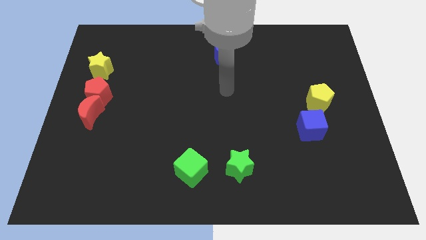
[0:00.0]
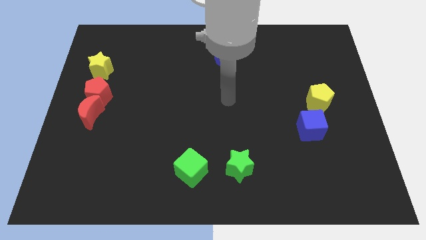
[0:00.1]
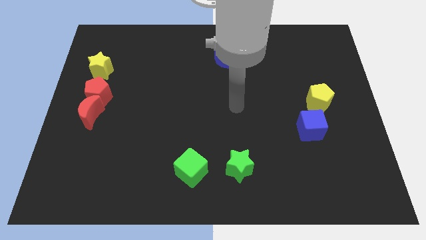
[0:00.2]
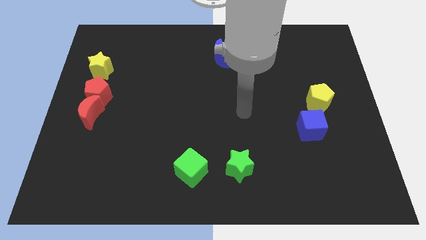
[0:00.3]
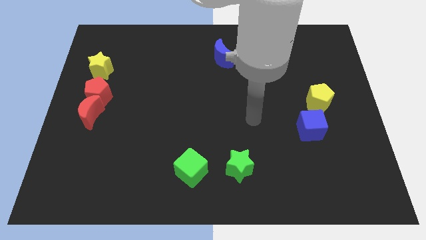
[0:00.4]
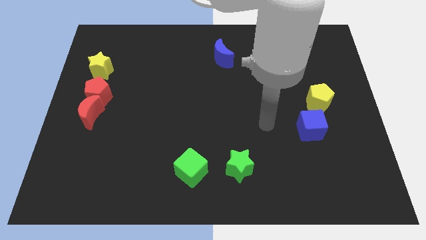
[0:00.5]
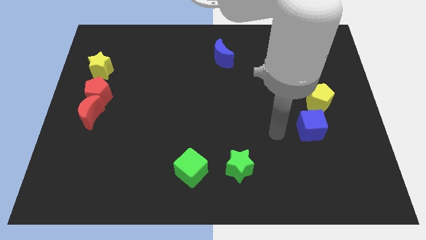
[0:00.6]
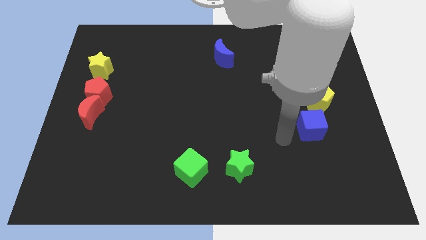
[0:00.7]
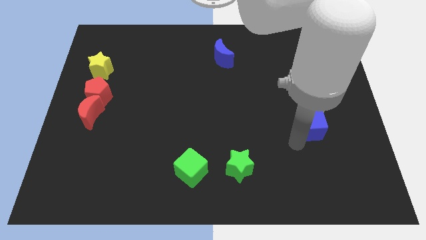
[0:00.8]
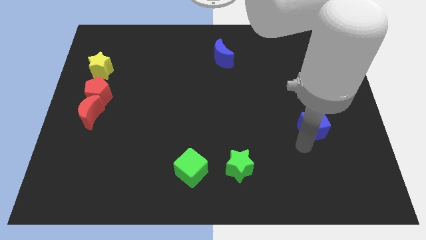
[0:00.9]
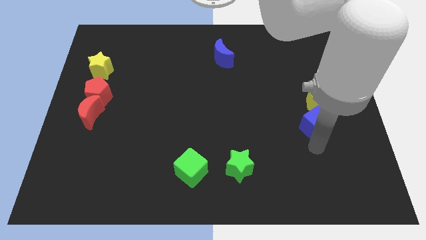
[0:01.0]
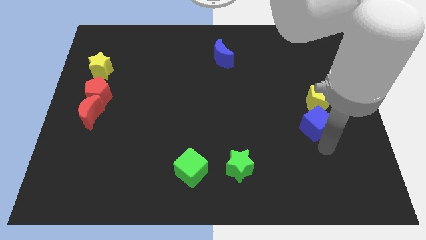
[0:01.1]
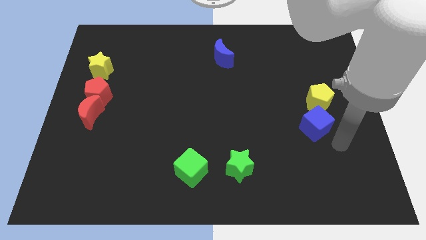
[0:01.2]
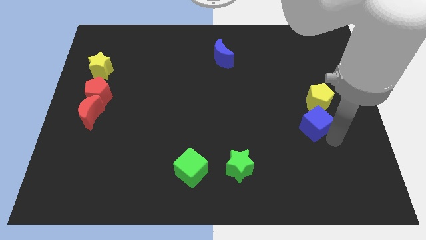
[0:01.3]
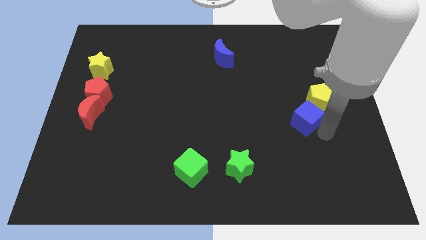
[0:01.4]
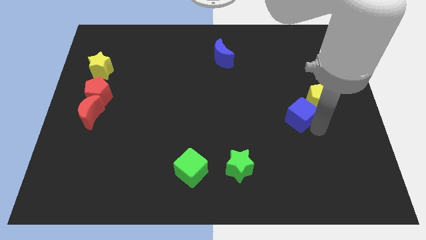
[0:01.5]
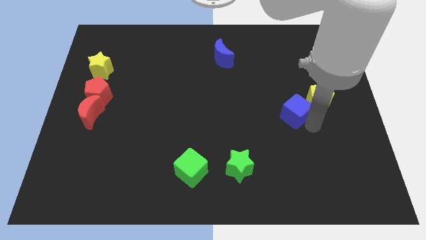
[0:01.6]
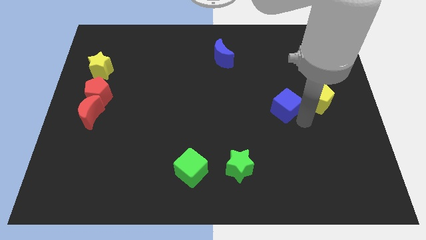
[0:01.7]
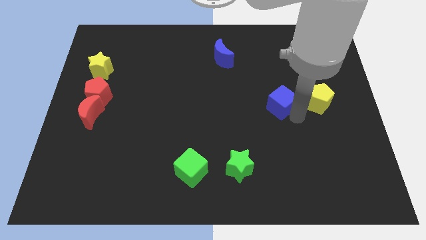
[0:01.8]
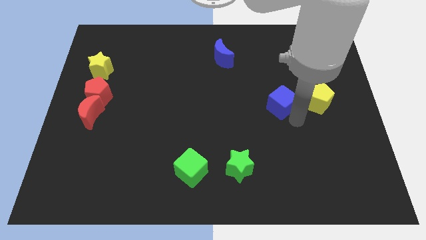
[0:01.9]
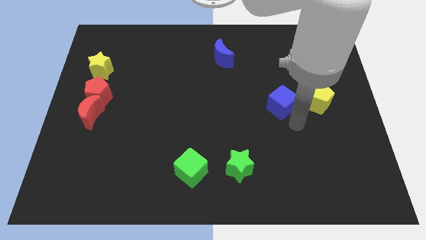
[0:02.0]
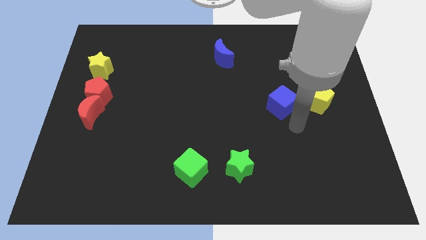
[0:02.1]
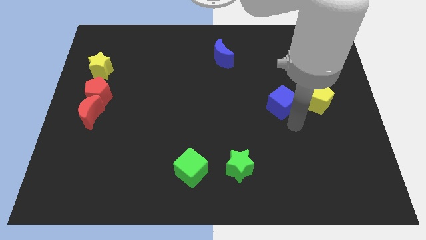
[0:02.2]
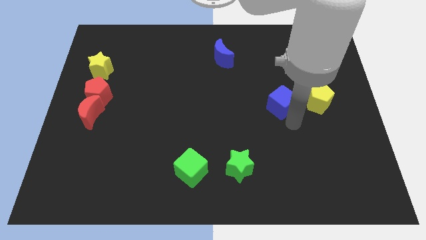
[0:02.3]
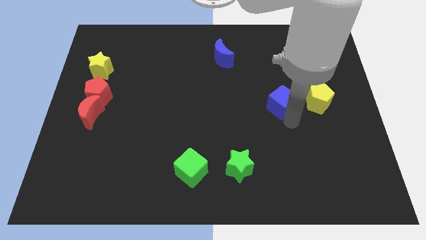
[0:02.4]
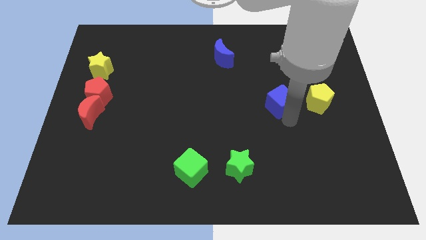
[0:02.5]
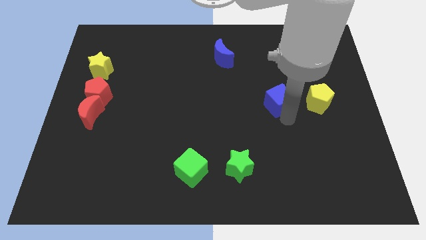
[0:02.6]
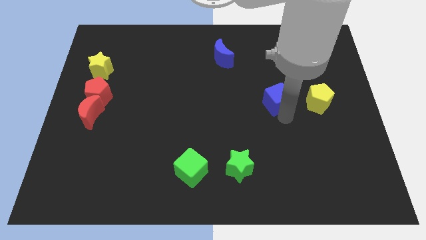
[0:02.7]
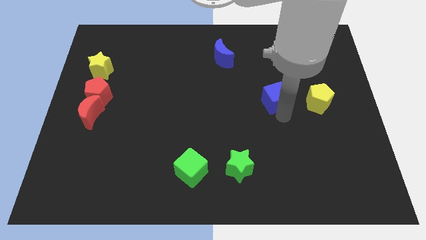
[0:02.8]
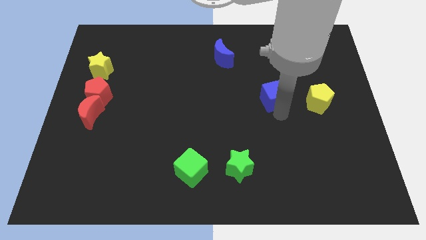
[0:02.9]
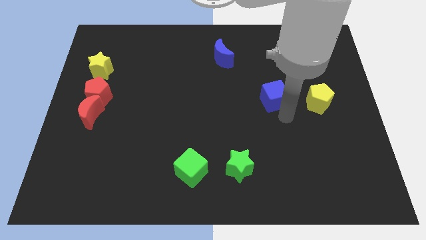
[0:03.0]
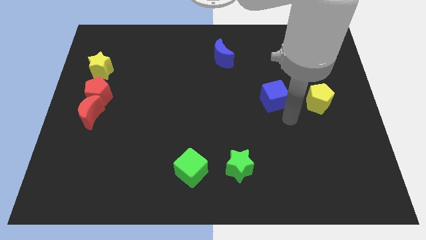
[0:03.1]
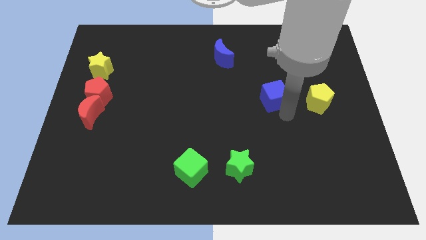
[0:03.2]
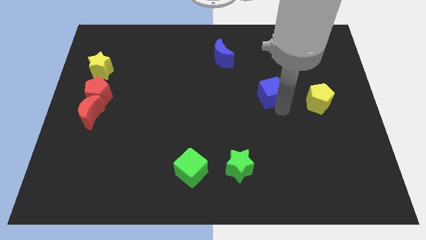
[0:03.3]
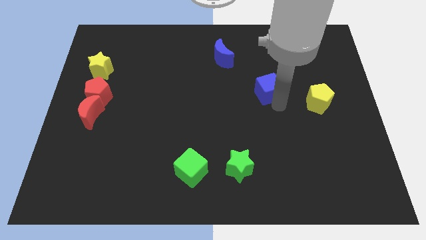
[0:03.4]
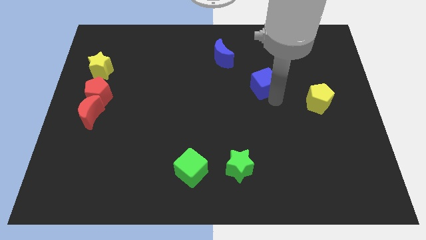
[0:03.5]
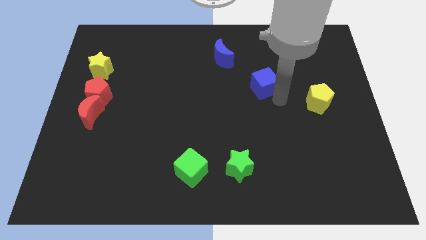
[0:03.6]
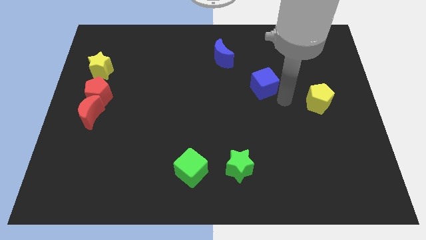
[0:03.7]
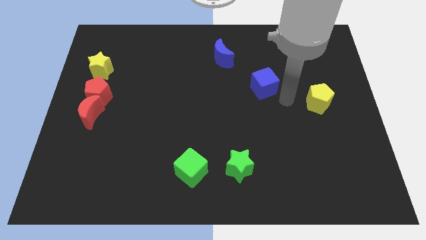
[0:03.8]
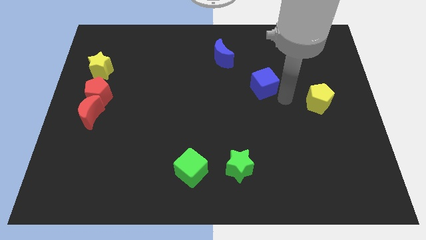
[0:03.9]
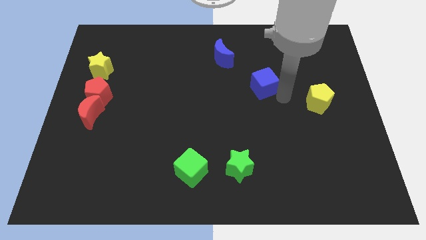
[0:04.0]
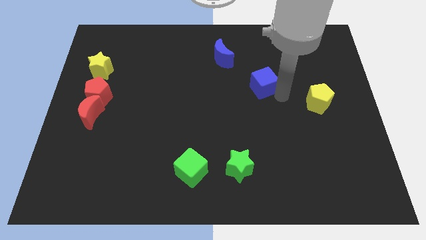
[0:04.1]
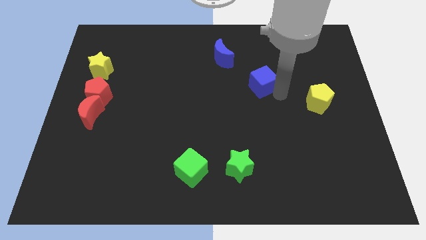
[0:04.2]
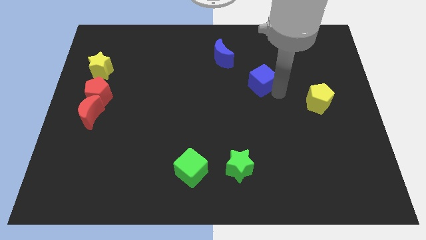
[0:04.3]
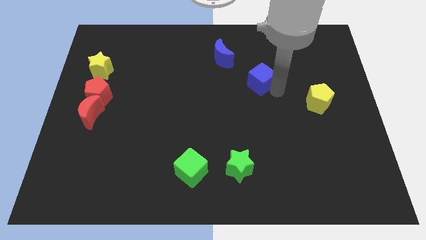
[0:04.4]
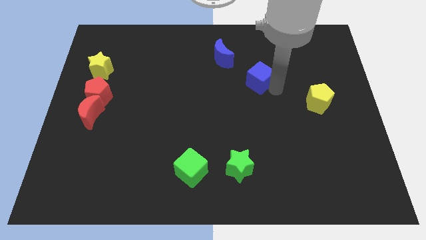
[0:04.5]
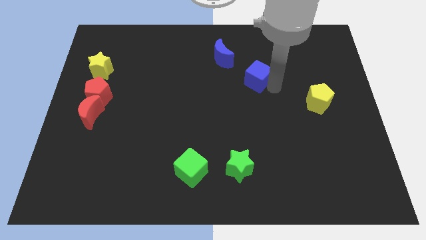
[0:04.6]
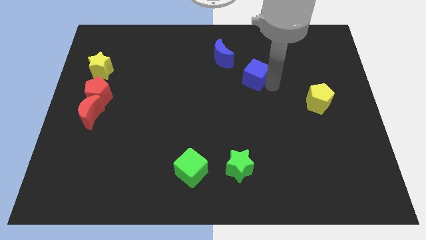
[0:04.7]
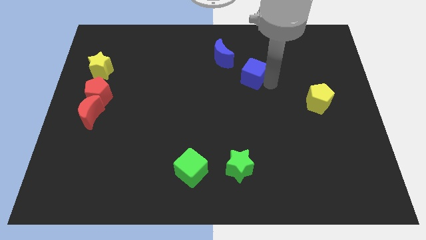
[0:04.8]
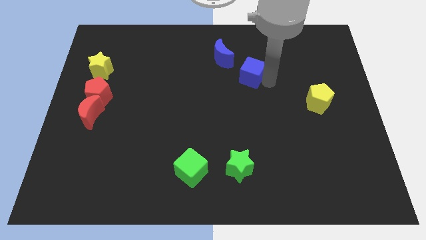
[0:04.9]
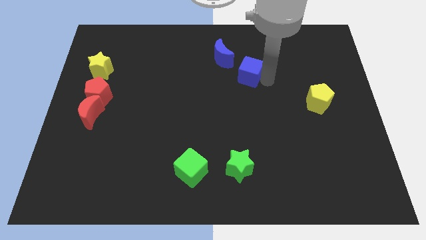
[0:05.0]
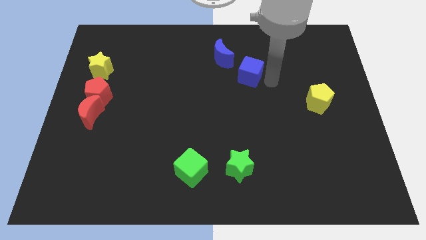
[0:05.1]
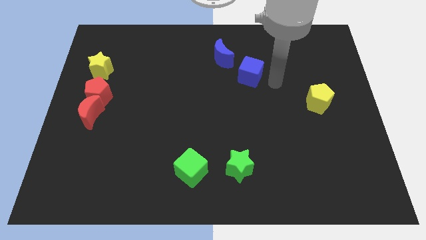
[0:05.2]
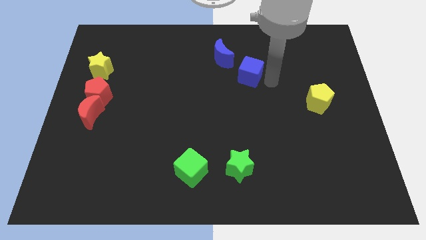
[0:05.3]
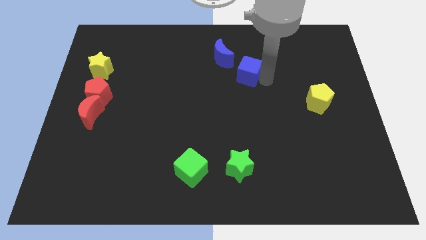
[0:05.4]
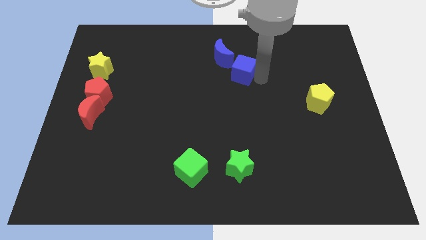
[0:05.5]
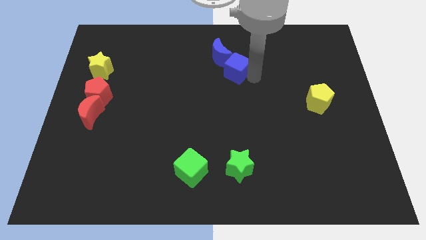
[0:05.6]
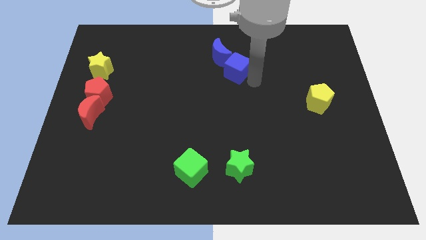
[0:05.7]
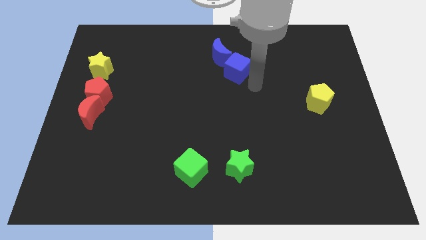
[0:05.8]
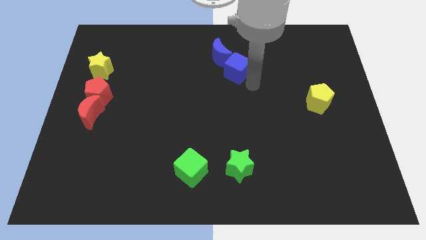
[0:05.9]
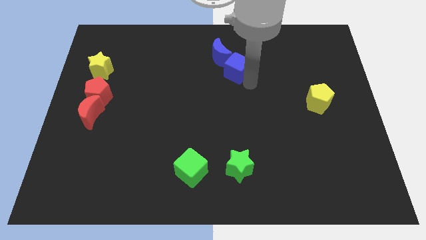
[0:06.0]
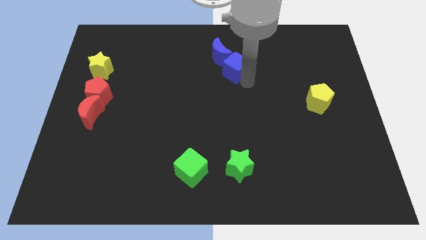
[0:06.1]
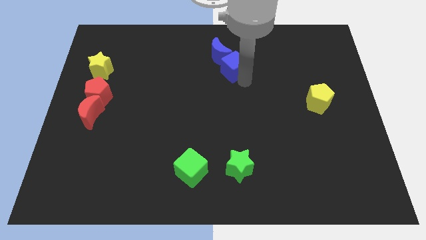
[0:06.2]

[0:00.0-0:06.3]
move the blue cube next to the blue moon

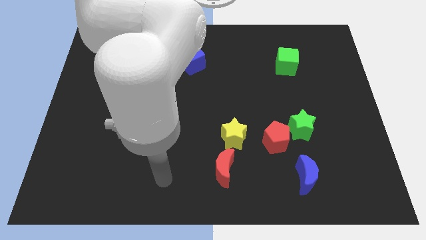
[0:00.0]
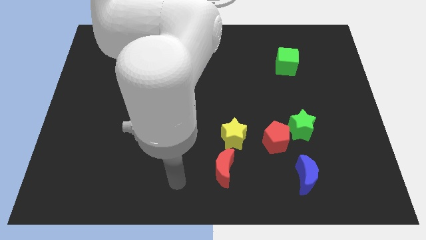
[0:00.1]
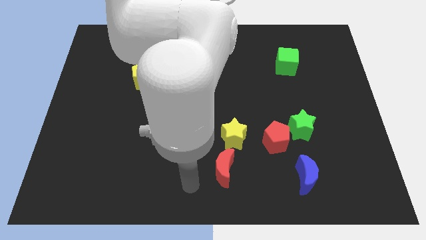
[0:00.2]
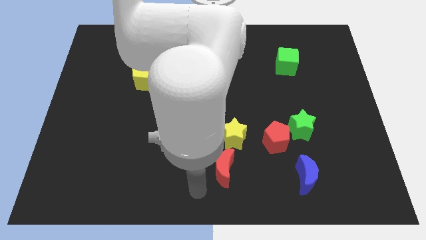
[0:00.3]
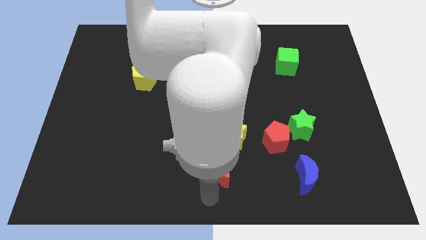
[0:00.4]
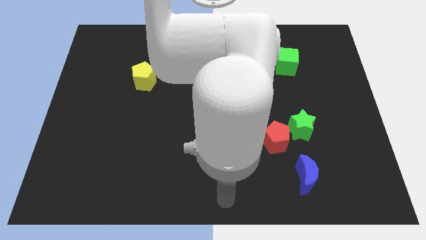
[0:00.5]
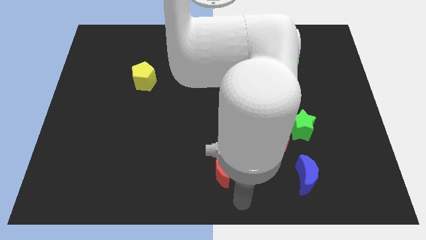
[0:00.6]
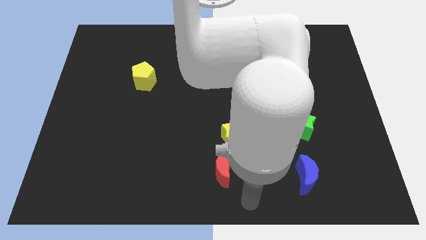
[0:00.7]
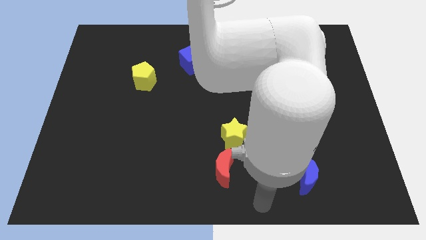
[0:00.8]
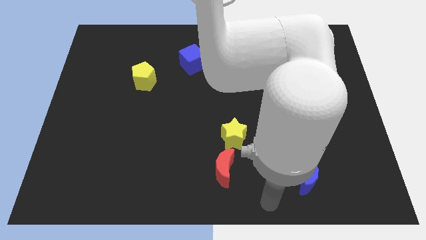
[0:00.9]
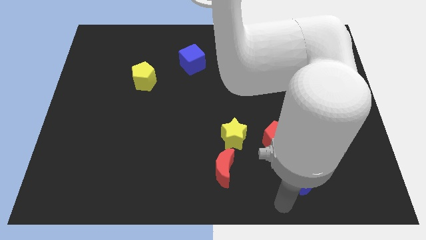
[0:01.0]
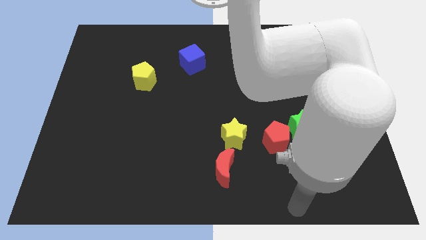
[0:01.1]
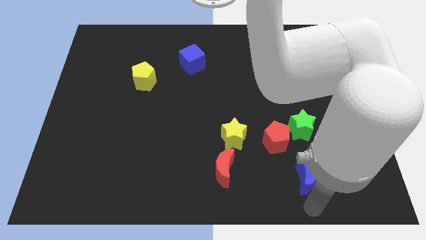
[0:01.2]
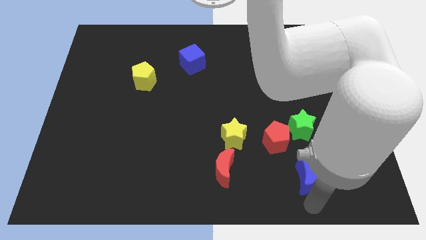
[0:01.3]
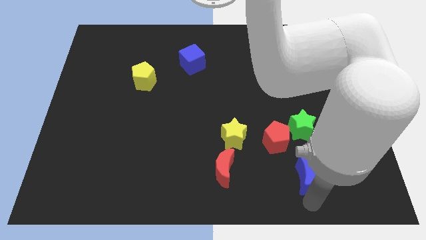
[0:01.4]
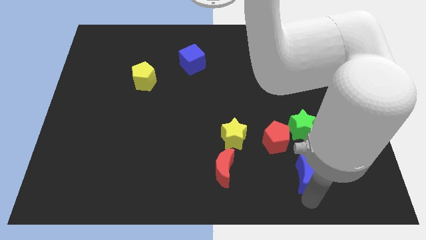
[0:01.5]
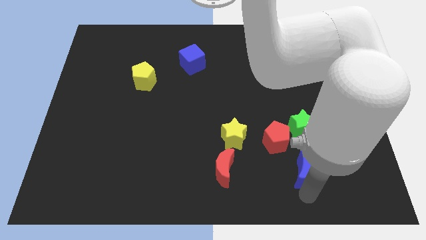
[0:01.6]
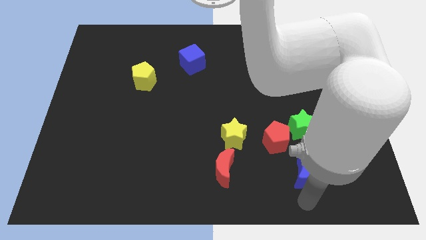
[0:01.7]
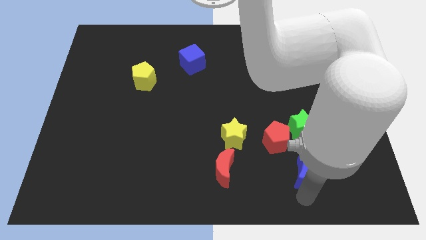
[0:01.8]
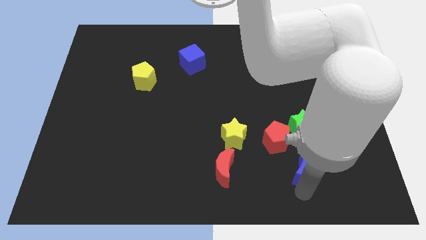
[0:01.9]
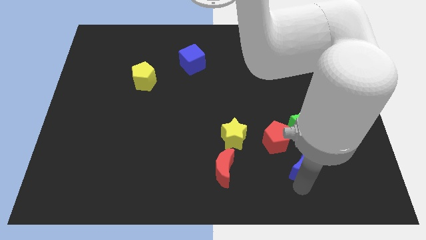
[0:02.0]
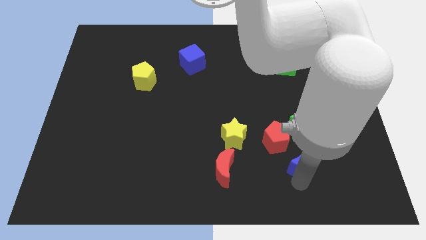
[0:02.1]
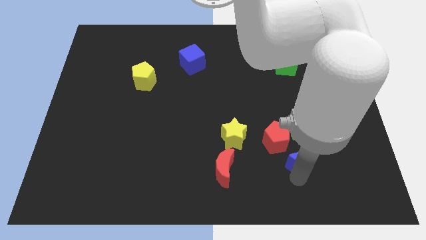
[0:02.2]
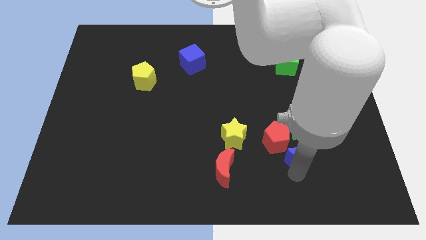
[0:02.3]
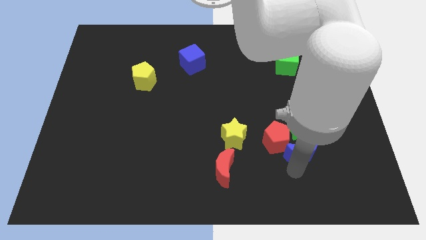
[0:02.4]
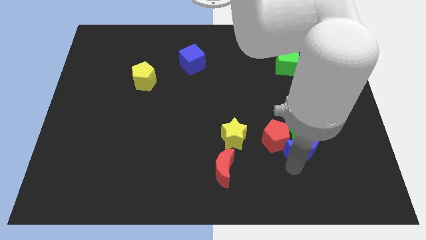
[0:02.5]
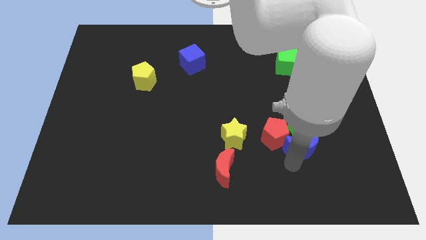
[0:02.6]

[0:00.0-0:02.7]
slide the blue moon close to the green star
